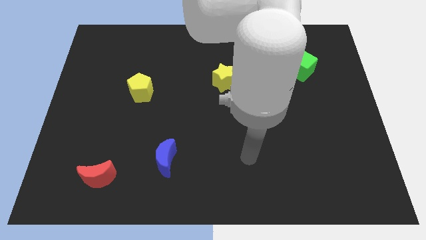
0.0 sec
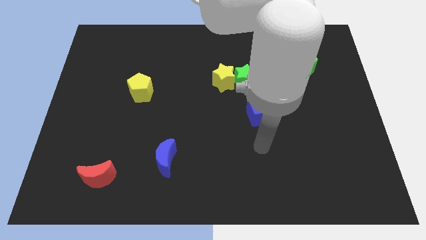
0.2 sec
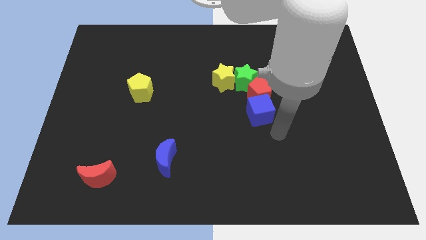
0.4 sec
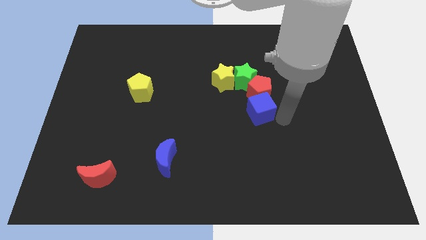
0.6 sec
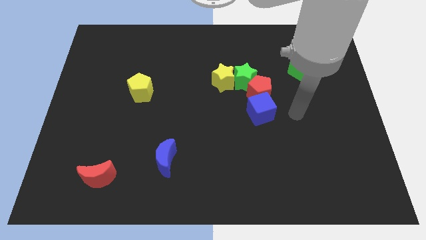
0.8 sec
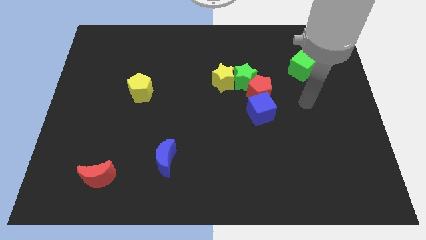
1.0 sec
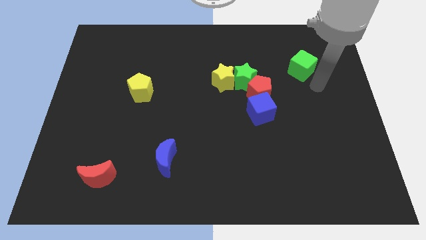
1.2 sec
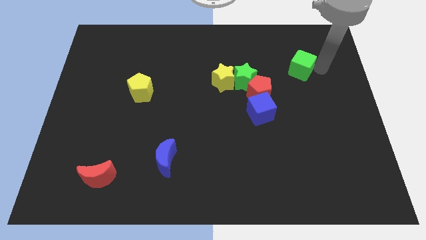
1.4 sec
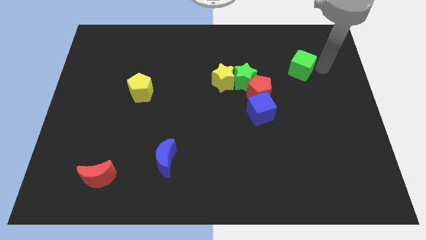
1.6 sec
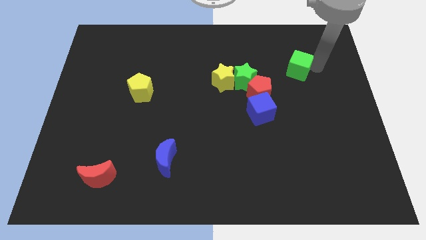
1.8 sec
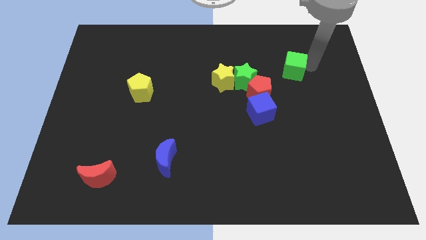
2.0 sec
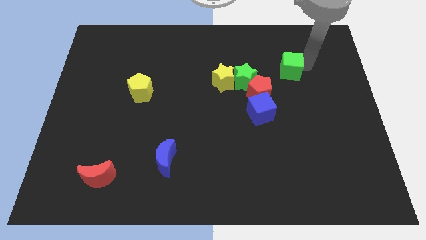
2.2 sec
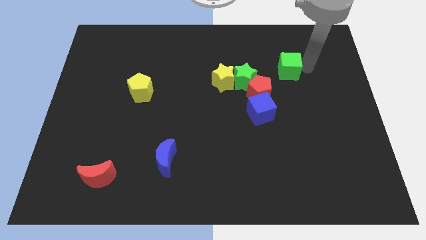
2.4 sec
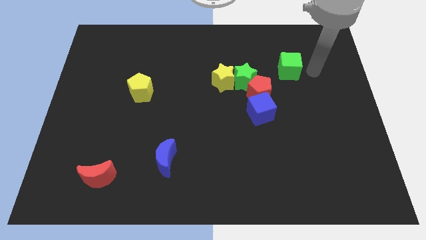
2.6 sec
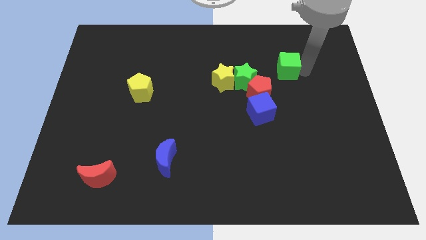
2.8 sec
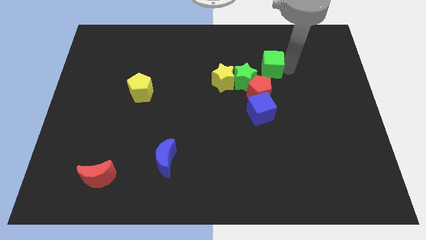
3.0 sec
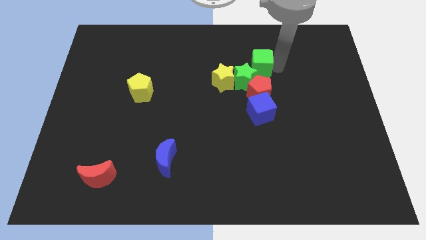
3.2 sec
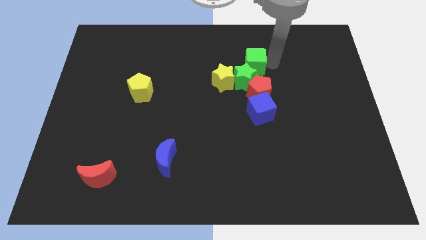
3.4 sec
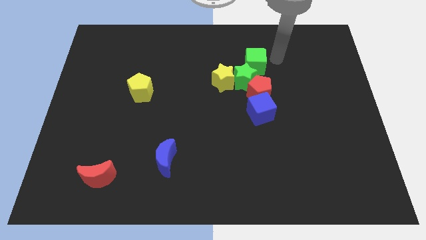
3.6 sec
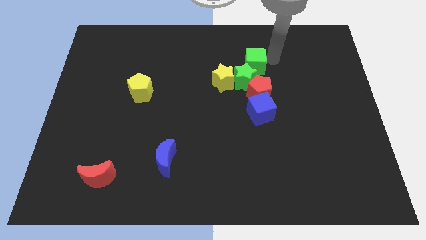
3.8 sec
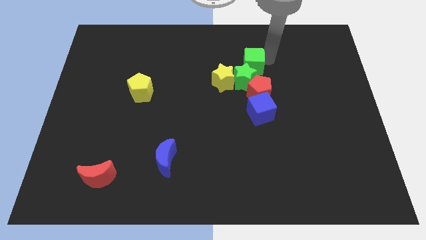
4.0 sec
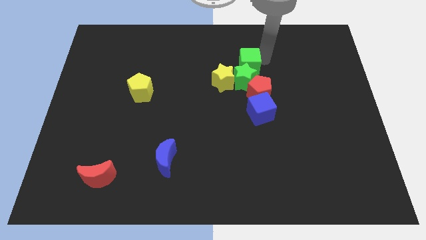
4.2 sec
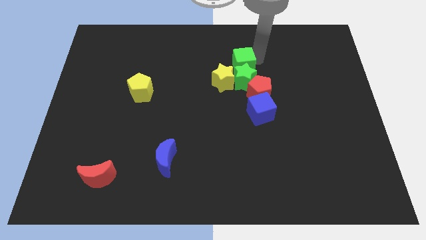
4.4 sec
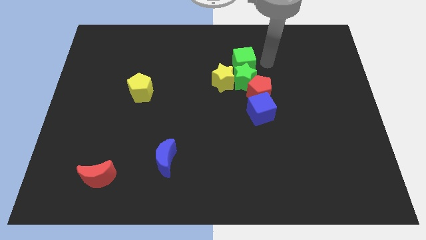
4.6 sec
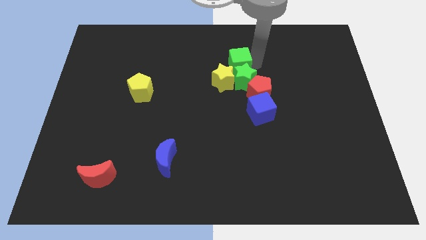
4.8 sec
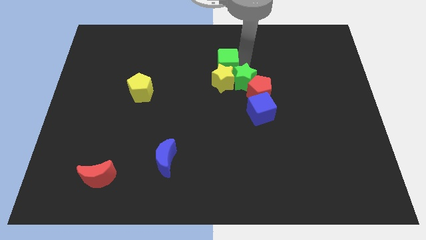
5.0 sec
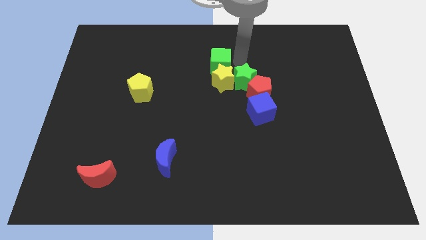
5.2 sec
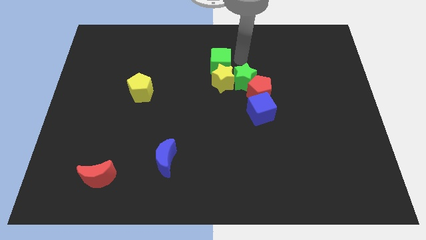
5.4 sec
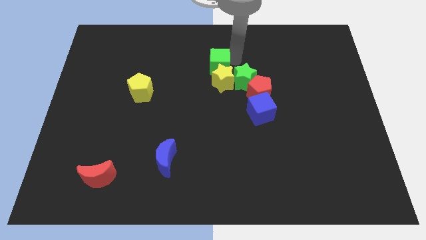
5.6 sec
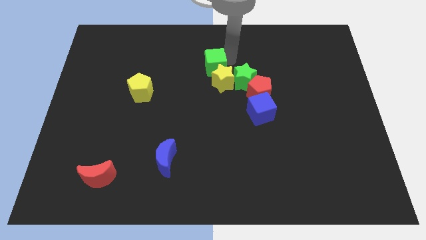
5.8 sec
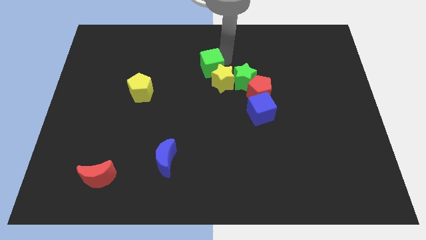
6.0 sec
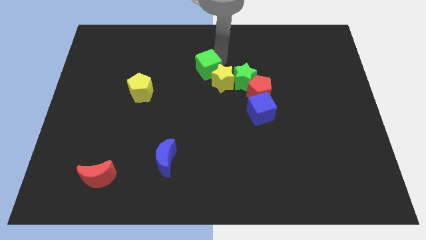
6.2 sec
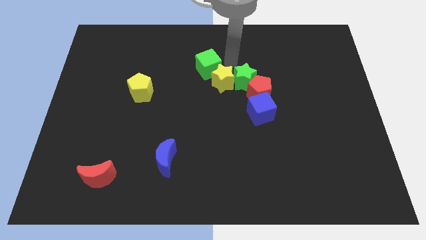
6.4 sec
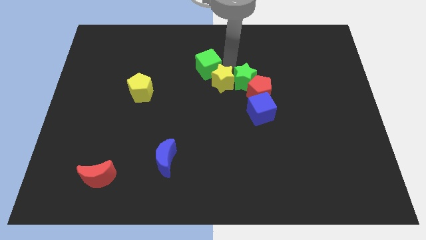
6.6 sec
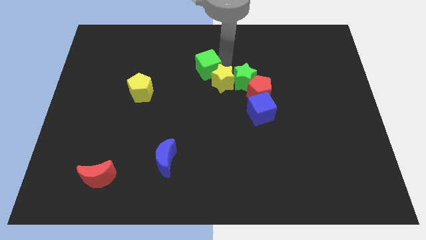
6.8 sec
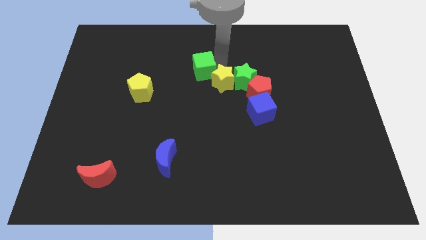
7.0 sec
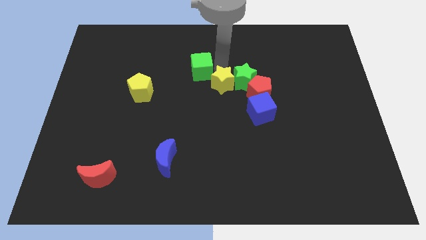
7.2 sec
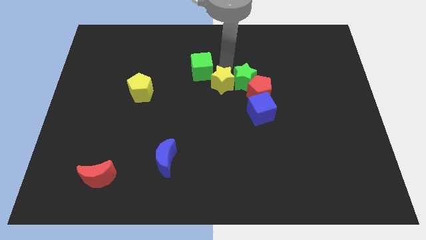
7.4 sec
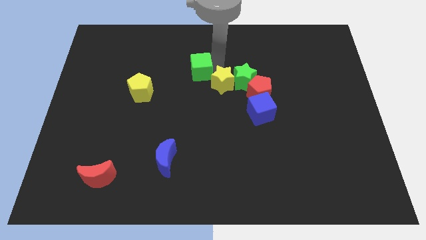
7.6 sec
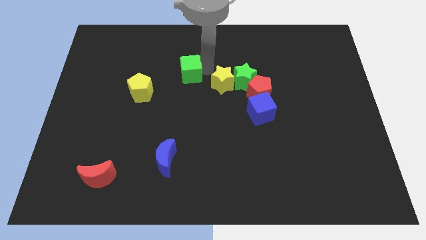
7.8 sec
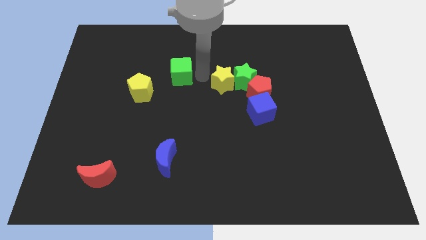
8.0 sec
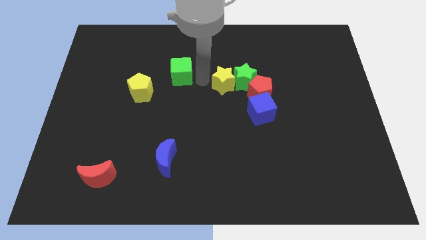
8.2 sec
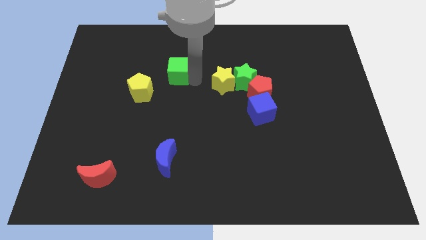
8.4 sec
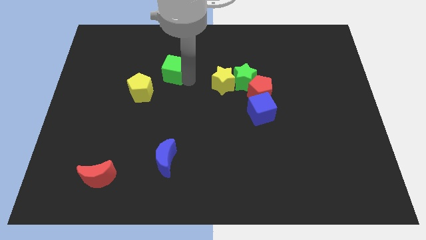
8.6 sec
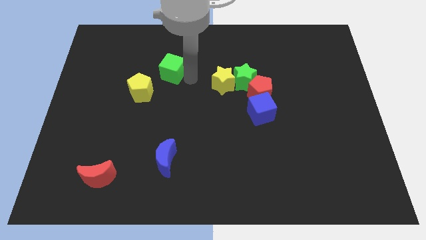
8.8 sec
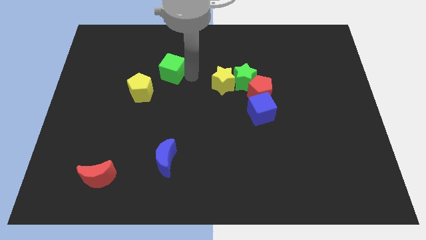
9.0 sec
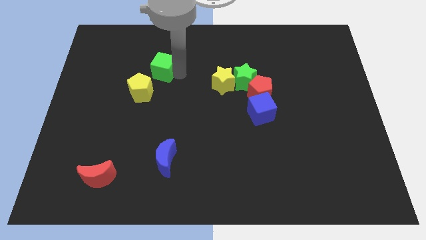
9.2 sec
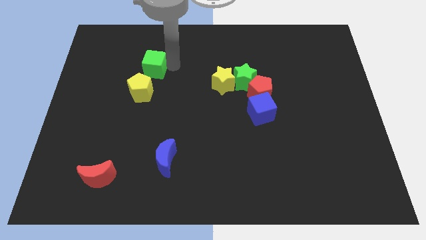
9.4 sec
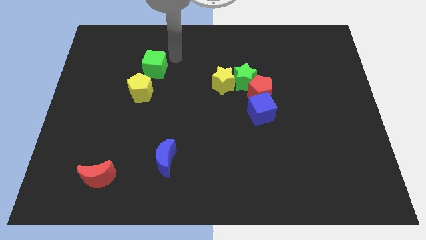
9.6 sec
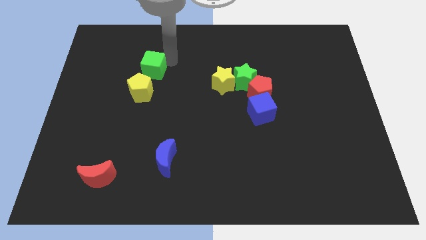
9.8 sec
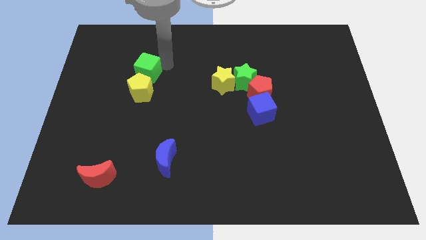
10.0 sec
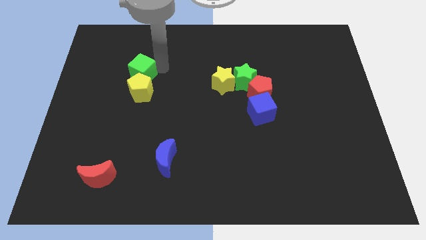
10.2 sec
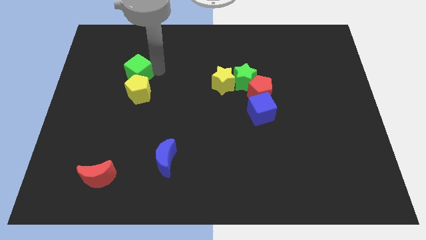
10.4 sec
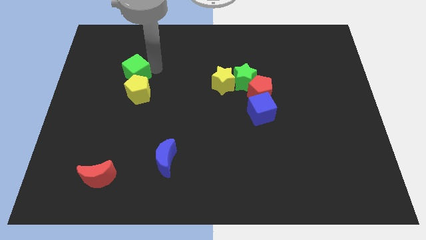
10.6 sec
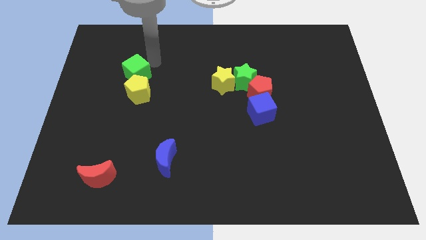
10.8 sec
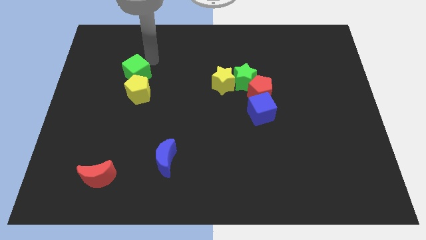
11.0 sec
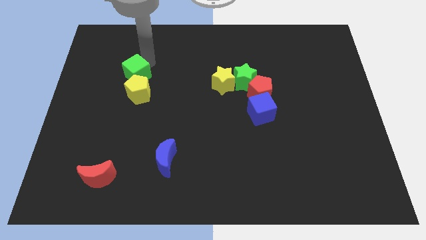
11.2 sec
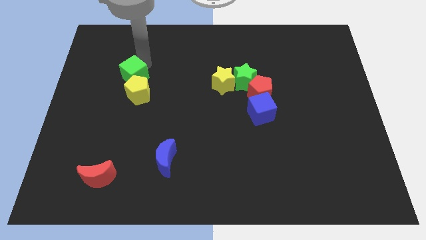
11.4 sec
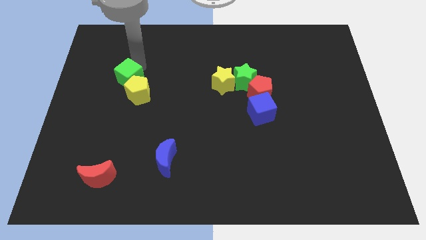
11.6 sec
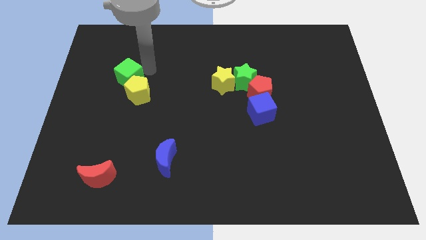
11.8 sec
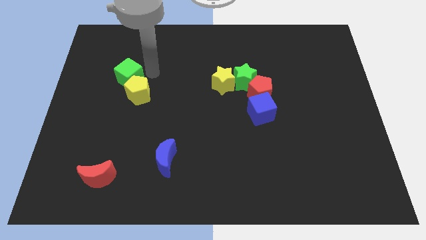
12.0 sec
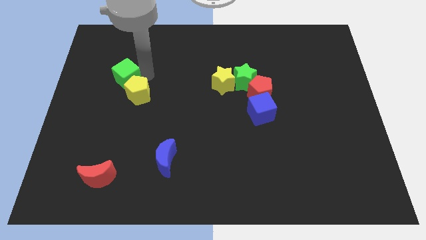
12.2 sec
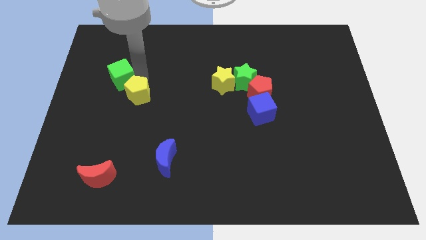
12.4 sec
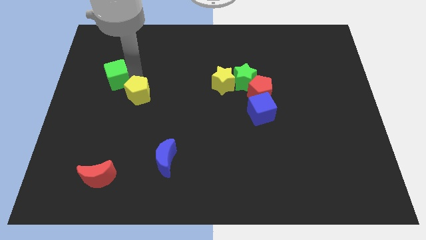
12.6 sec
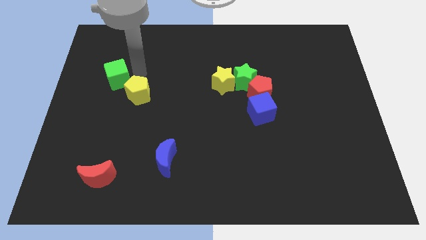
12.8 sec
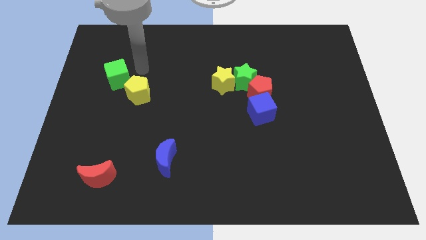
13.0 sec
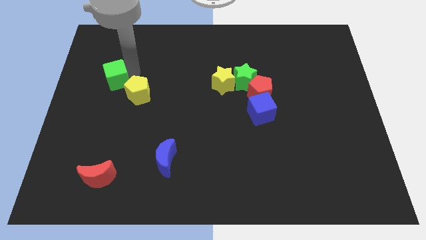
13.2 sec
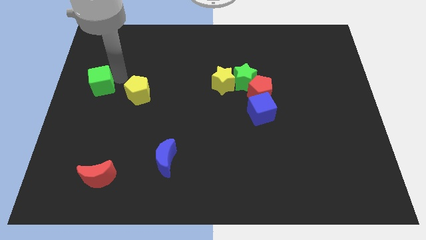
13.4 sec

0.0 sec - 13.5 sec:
slide the green cube to the left side
